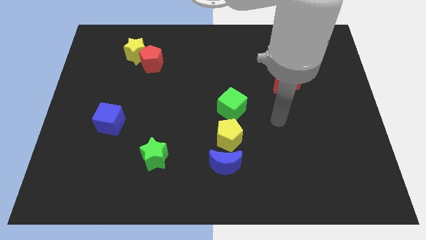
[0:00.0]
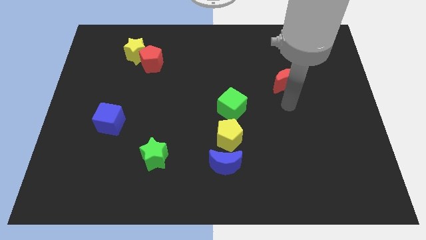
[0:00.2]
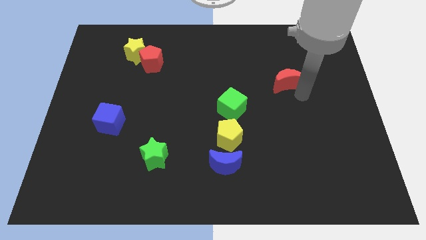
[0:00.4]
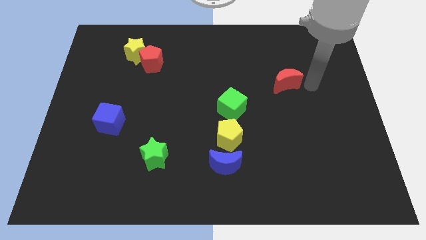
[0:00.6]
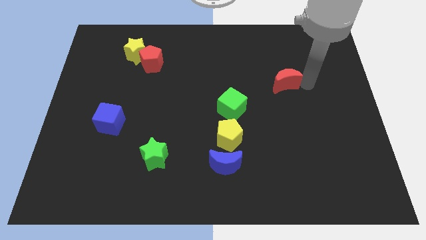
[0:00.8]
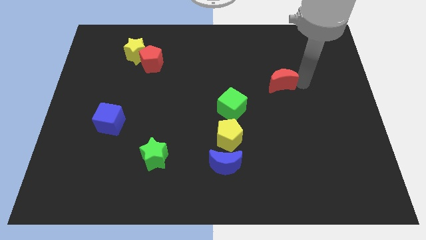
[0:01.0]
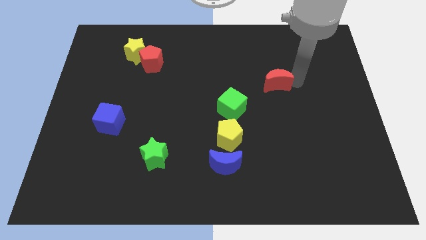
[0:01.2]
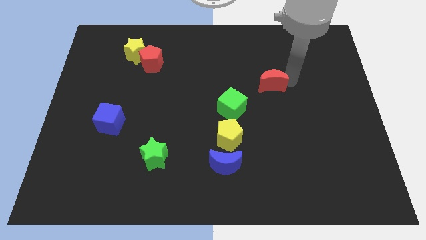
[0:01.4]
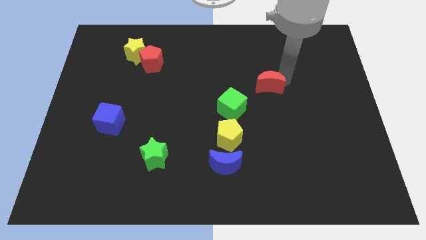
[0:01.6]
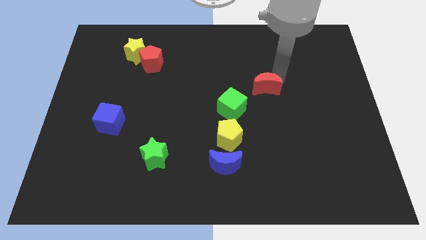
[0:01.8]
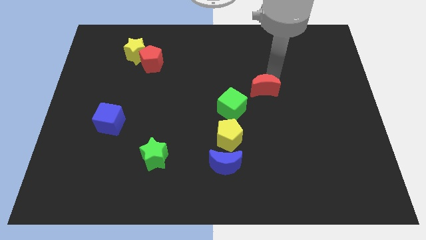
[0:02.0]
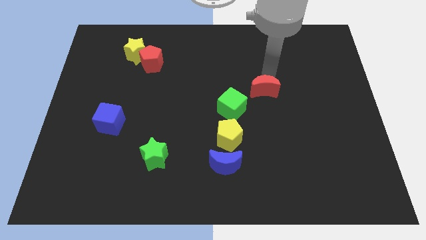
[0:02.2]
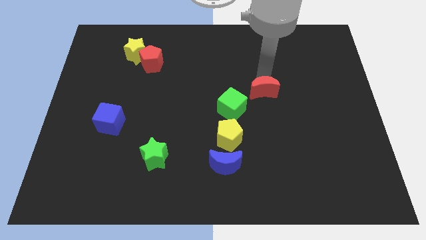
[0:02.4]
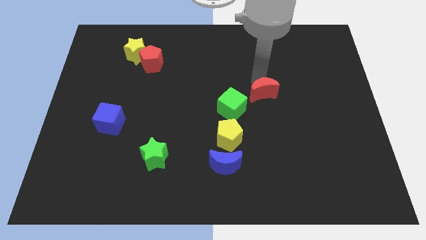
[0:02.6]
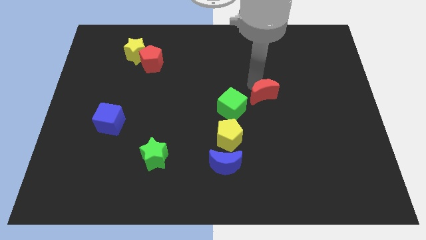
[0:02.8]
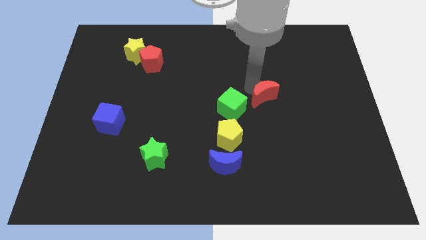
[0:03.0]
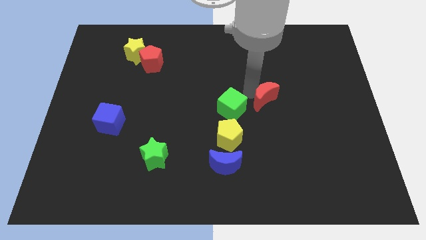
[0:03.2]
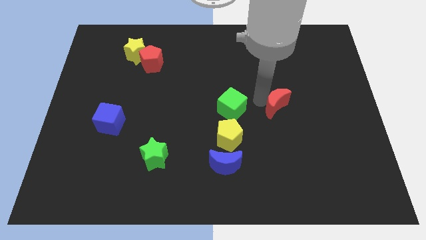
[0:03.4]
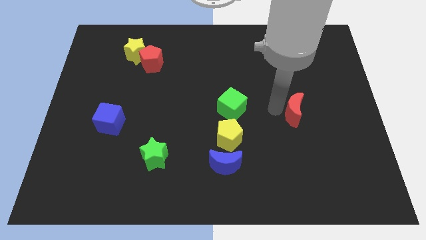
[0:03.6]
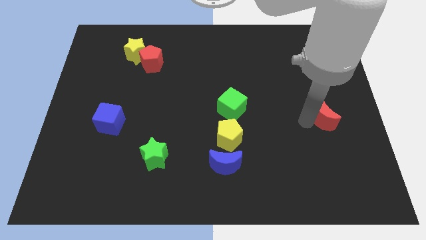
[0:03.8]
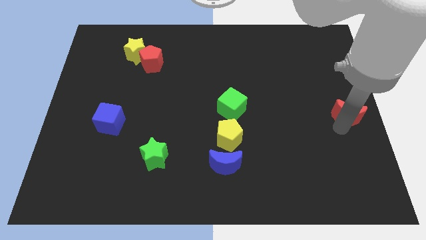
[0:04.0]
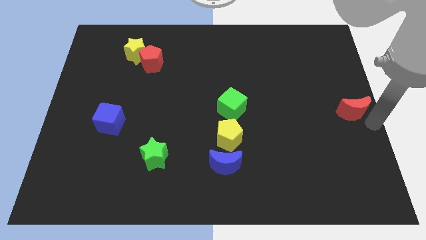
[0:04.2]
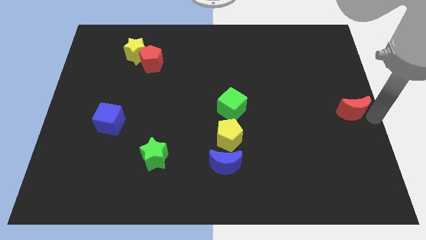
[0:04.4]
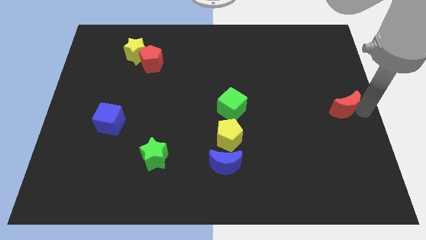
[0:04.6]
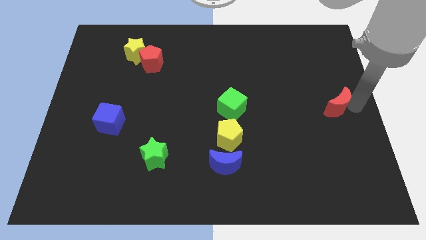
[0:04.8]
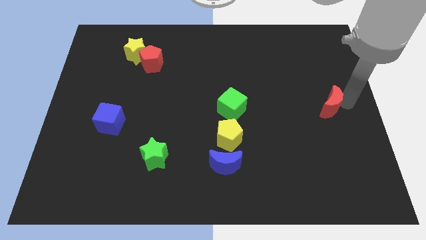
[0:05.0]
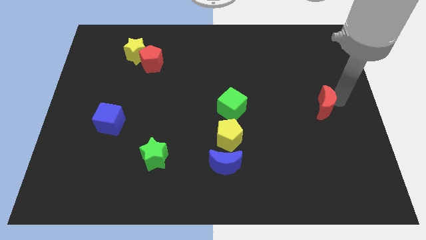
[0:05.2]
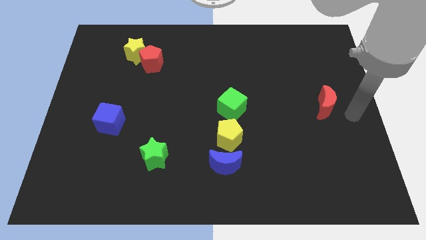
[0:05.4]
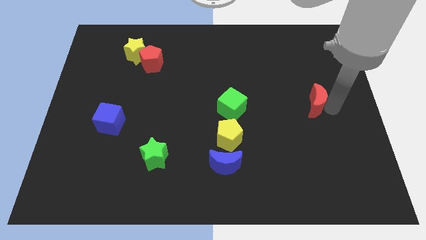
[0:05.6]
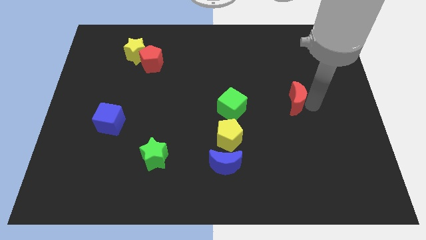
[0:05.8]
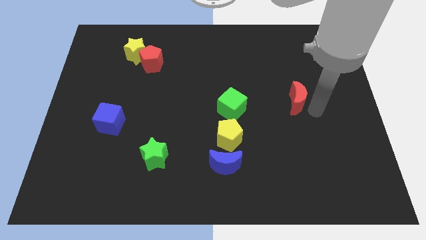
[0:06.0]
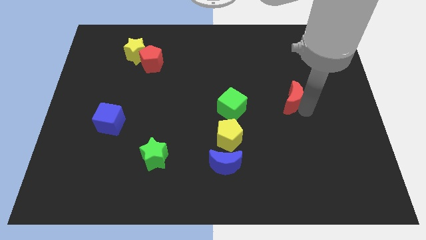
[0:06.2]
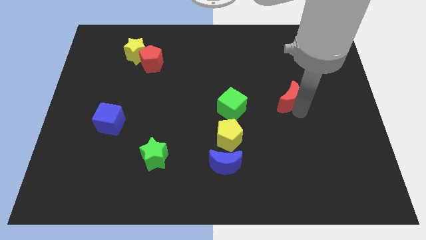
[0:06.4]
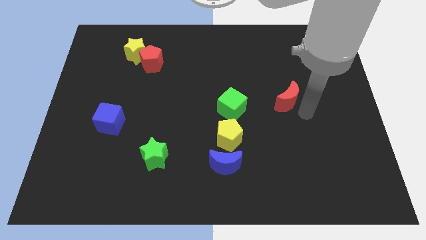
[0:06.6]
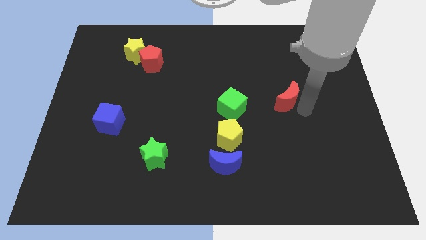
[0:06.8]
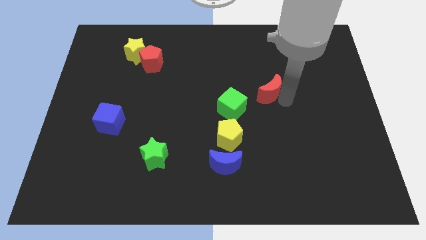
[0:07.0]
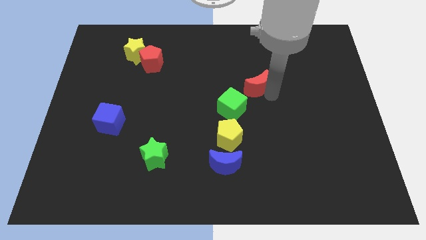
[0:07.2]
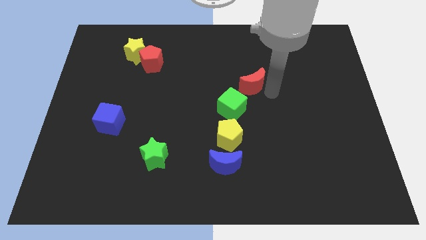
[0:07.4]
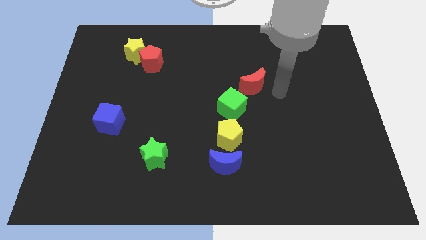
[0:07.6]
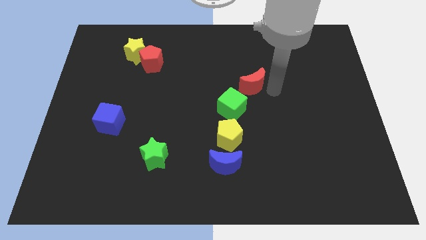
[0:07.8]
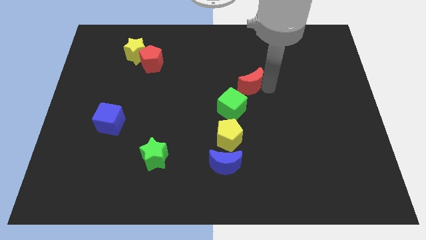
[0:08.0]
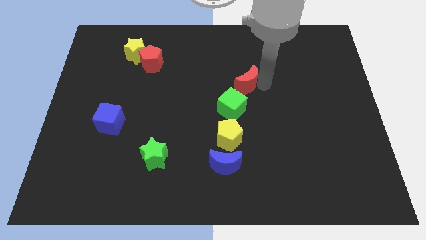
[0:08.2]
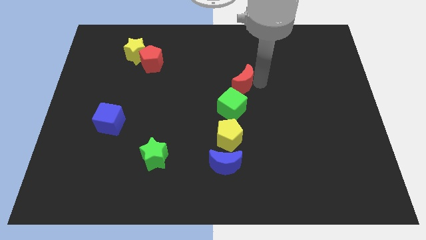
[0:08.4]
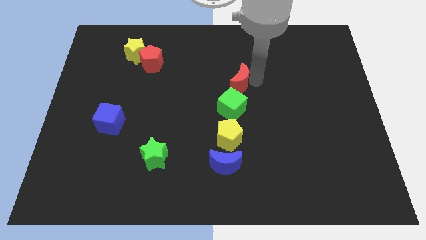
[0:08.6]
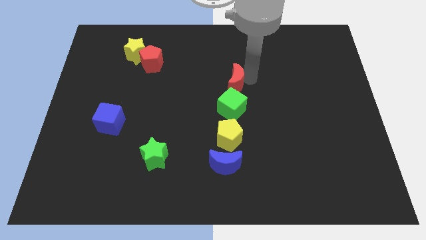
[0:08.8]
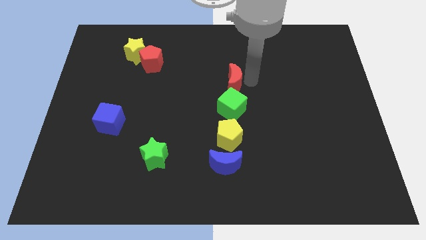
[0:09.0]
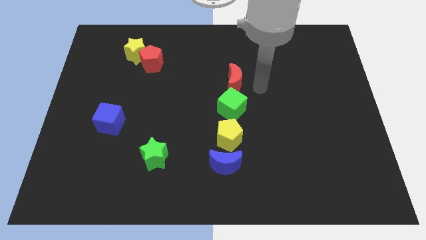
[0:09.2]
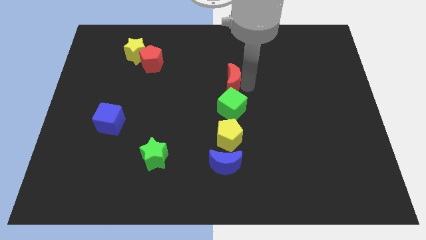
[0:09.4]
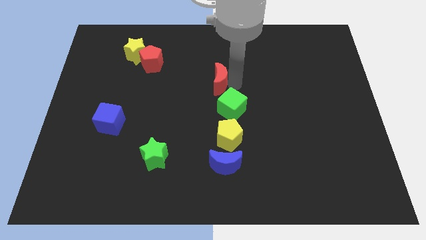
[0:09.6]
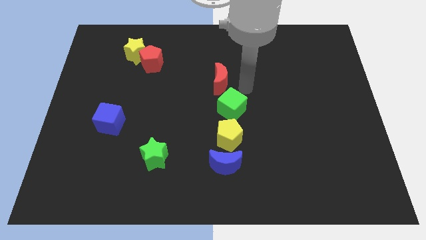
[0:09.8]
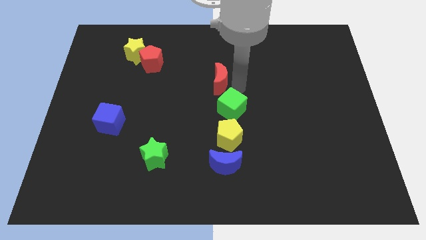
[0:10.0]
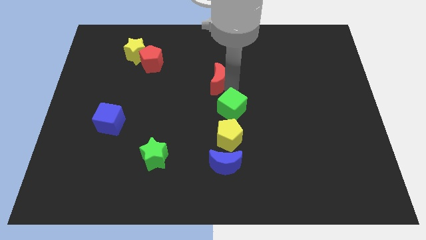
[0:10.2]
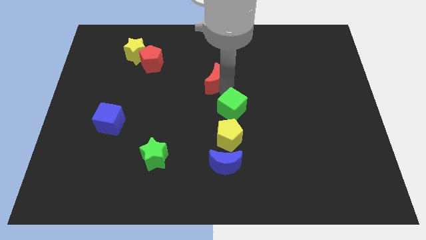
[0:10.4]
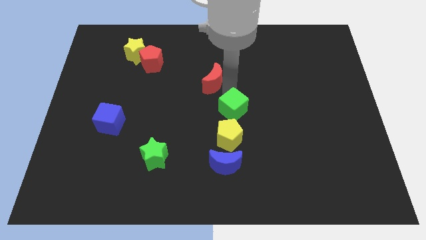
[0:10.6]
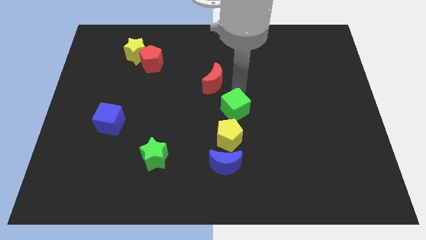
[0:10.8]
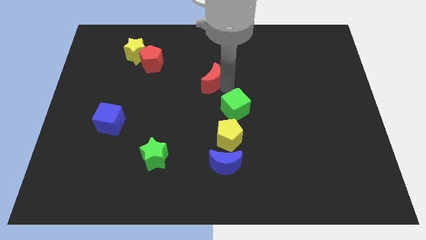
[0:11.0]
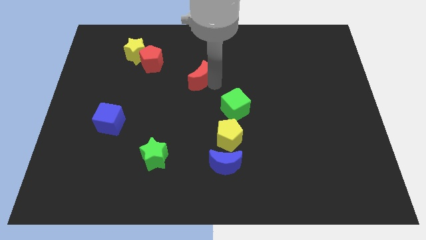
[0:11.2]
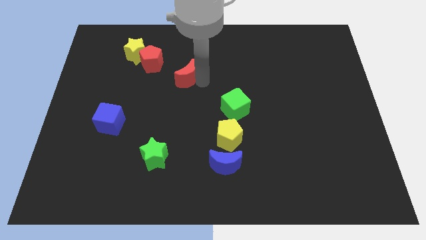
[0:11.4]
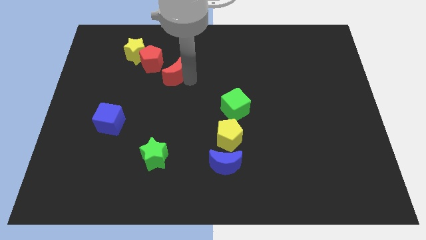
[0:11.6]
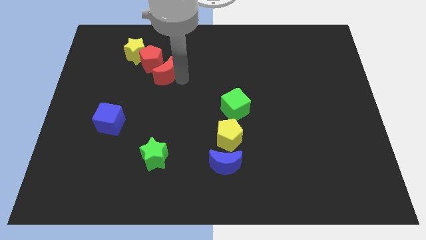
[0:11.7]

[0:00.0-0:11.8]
slide the red moon next to the red pentagon

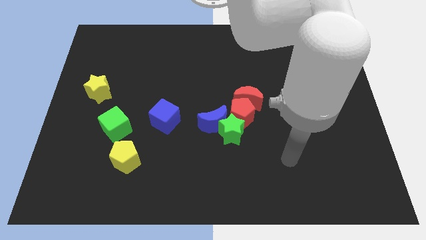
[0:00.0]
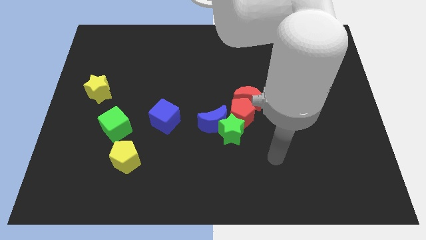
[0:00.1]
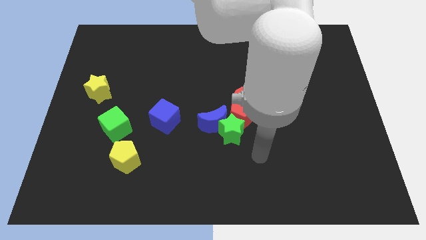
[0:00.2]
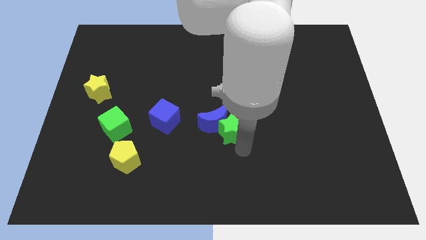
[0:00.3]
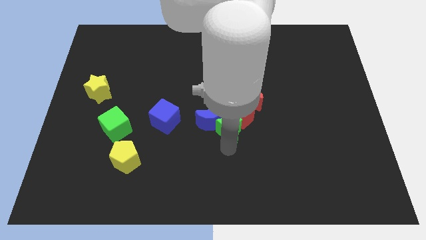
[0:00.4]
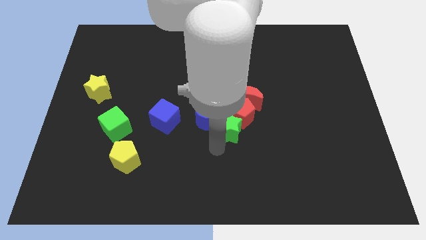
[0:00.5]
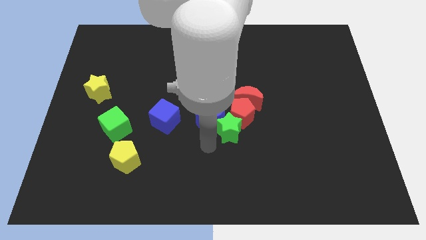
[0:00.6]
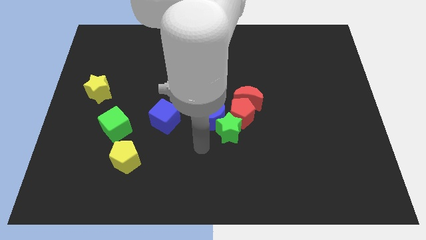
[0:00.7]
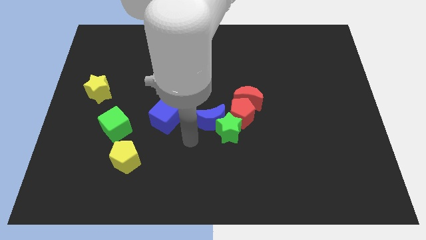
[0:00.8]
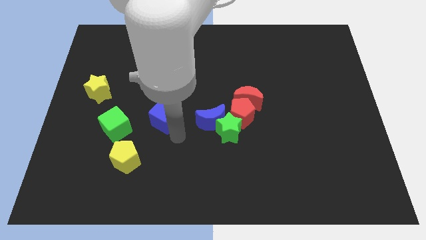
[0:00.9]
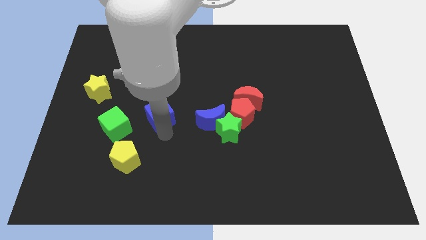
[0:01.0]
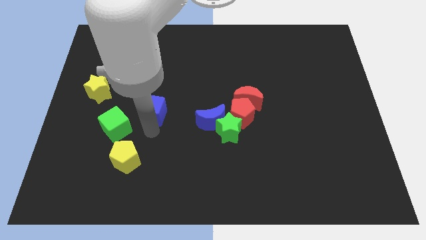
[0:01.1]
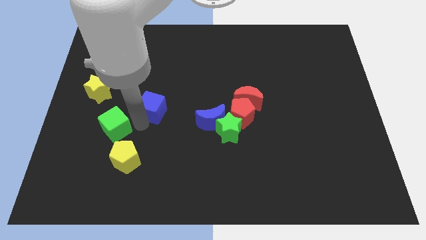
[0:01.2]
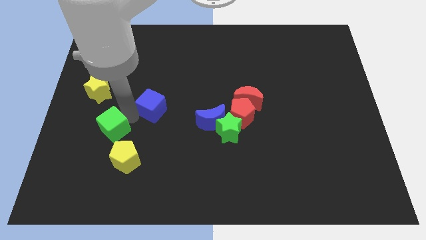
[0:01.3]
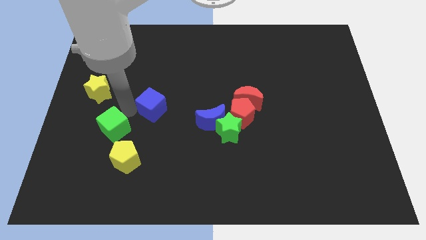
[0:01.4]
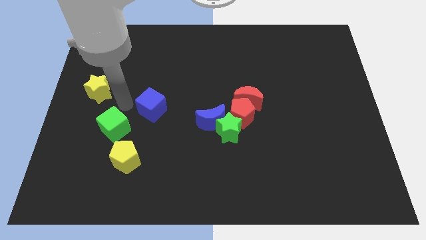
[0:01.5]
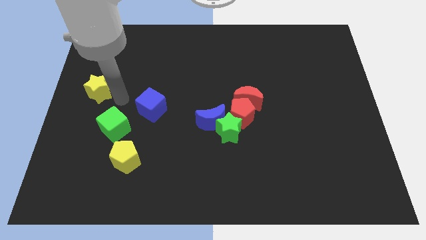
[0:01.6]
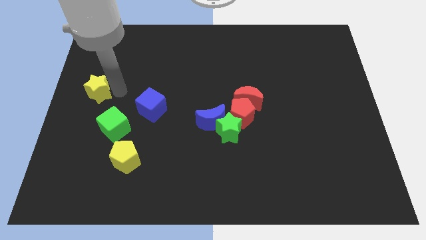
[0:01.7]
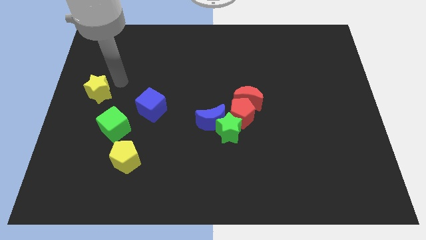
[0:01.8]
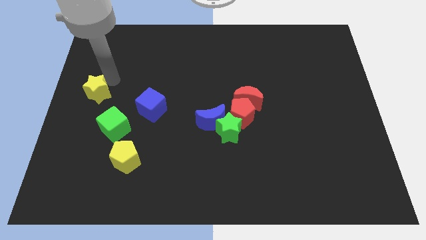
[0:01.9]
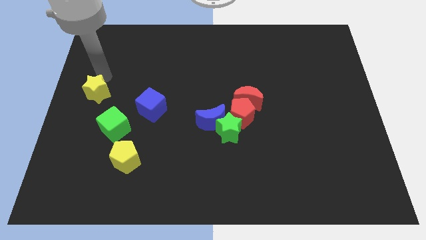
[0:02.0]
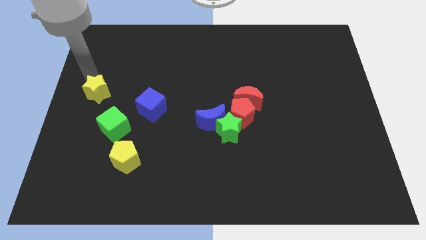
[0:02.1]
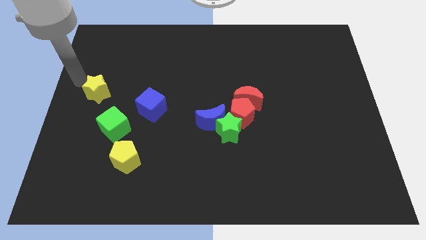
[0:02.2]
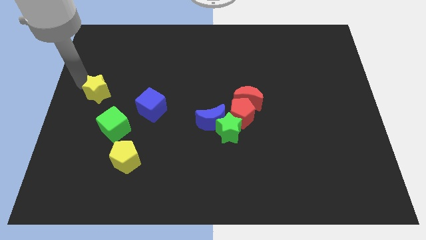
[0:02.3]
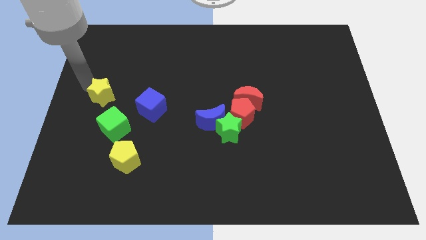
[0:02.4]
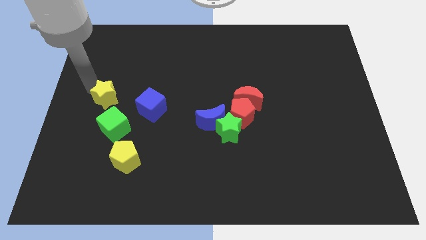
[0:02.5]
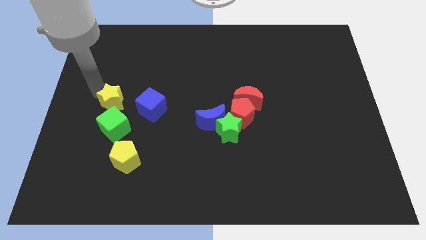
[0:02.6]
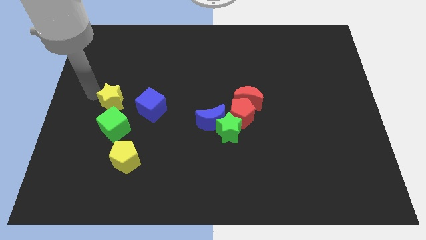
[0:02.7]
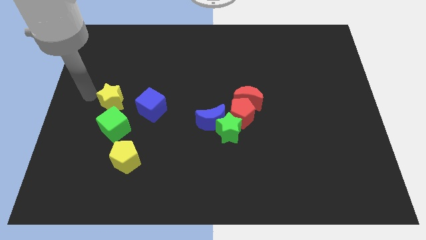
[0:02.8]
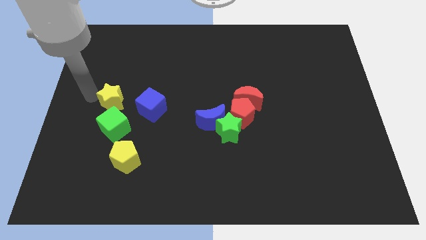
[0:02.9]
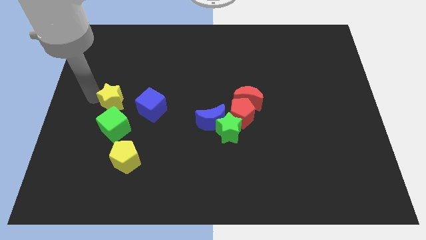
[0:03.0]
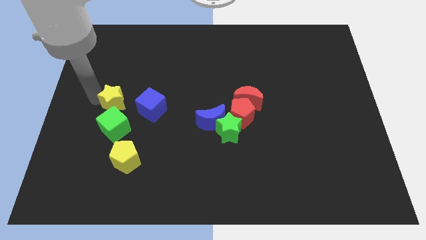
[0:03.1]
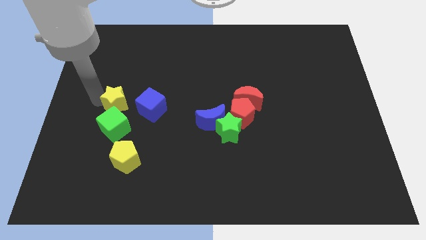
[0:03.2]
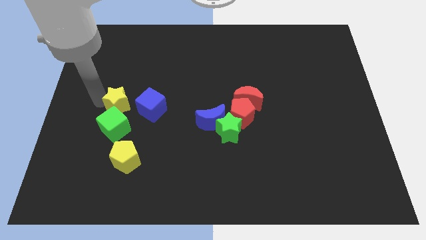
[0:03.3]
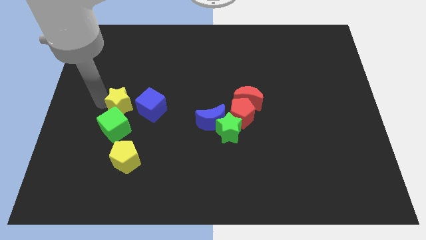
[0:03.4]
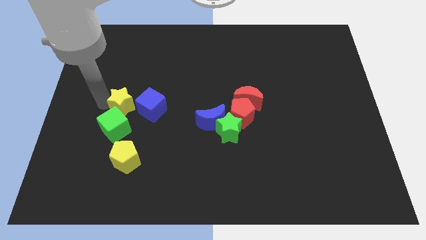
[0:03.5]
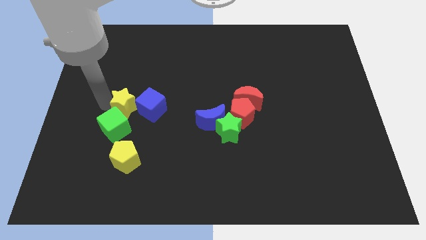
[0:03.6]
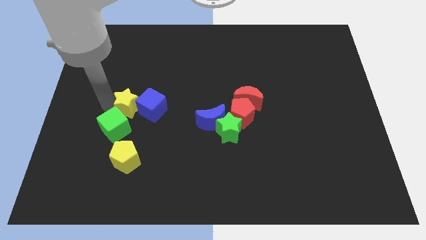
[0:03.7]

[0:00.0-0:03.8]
push the yellow star close to the blue cube
